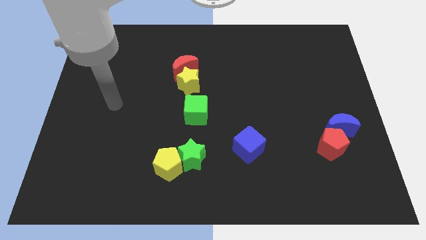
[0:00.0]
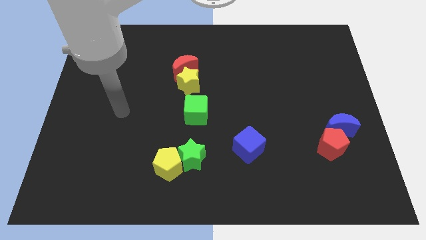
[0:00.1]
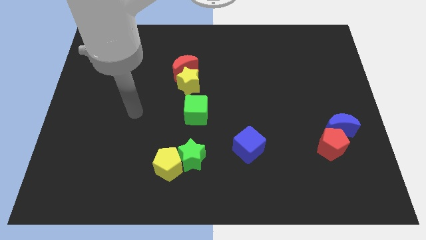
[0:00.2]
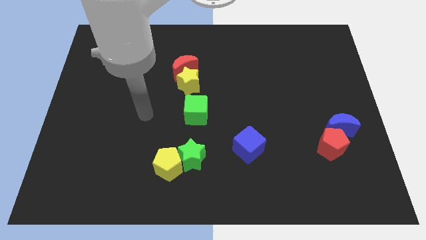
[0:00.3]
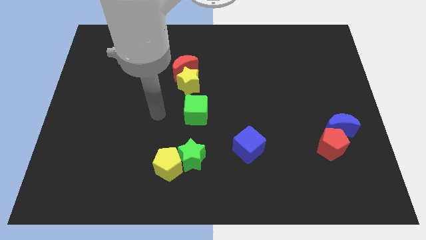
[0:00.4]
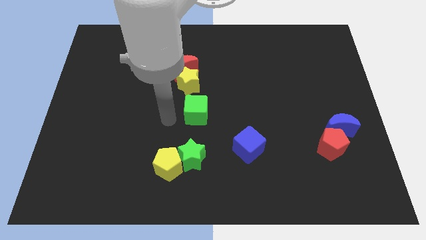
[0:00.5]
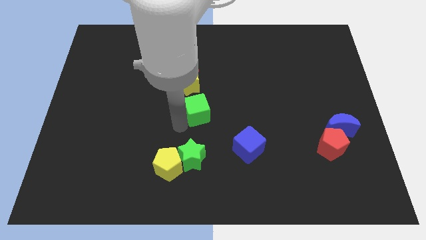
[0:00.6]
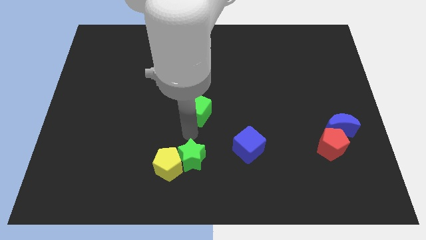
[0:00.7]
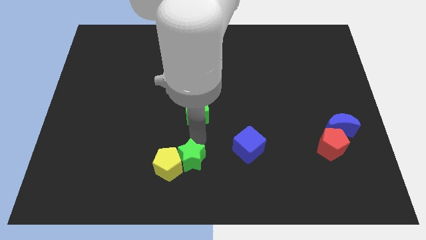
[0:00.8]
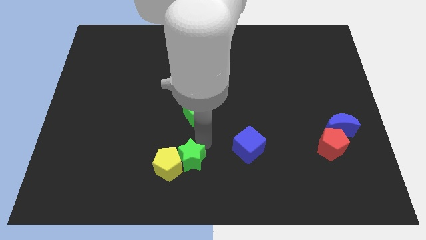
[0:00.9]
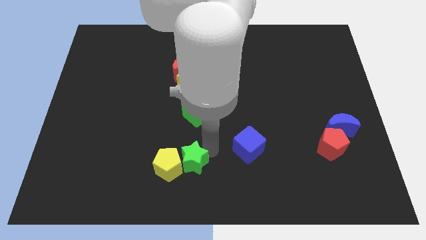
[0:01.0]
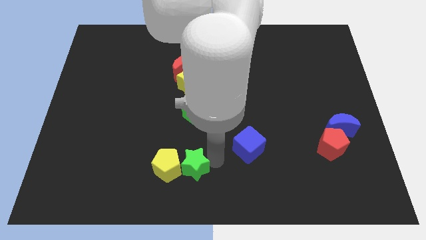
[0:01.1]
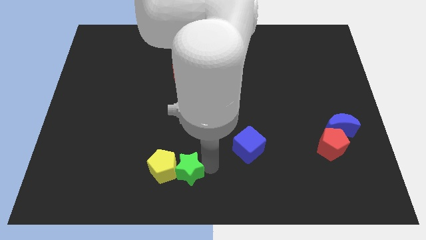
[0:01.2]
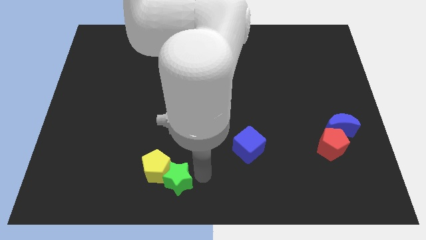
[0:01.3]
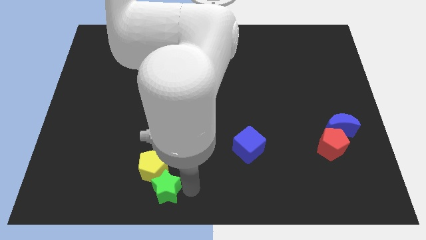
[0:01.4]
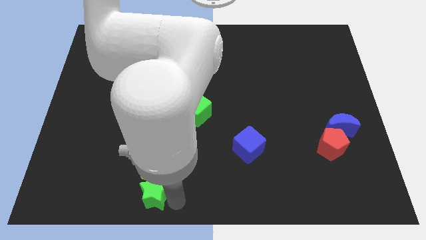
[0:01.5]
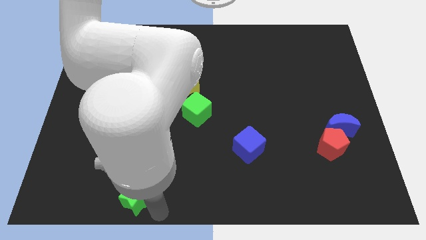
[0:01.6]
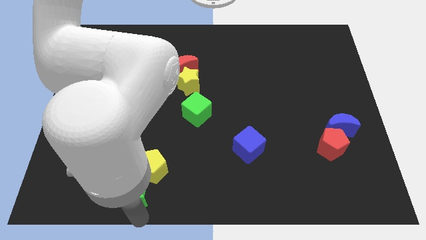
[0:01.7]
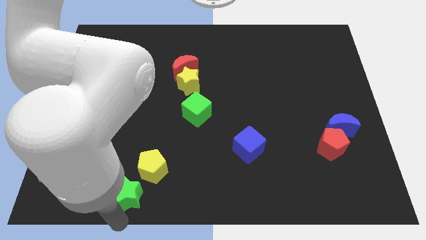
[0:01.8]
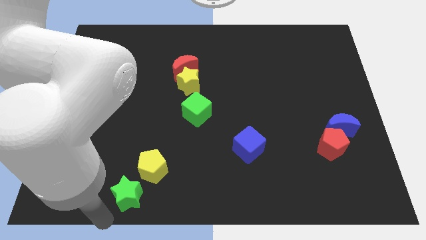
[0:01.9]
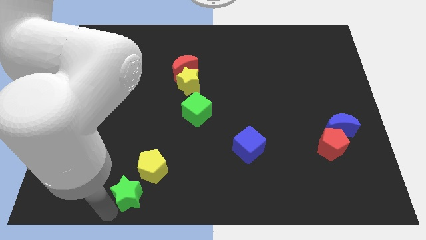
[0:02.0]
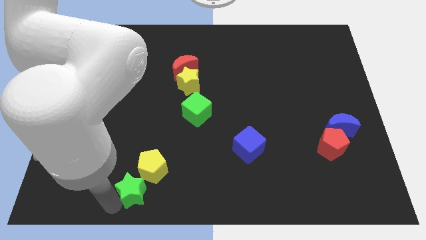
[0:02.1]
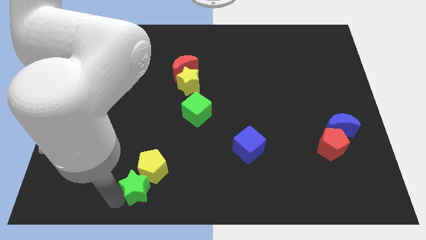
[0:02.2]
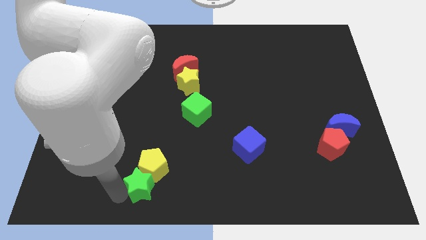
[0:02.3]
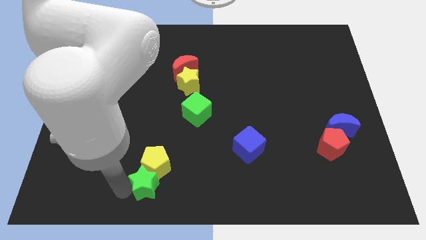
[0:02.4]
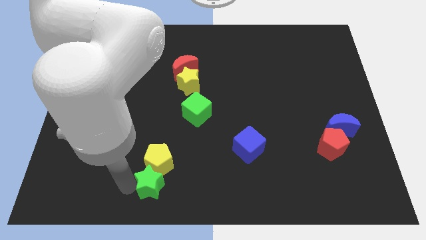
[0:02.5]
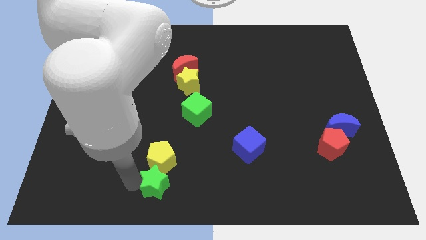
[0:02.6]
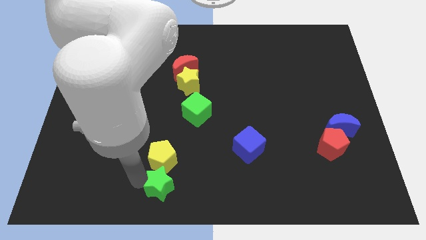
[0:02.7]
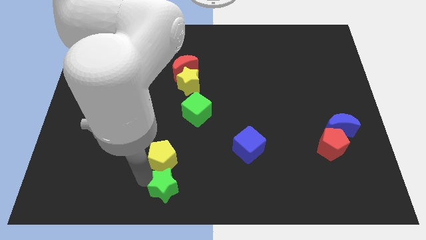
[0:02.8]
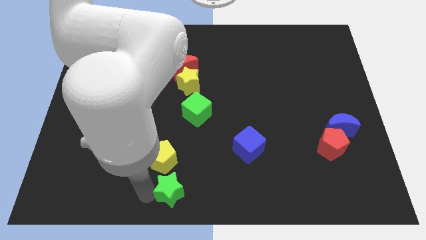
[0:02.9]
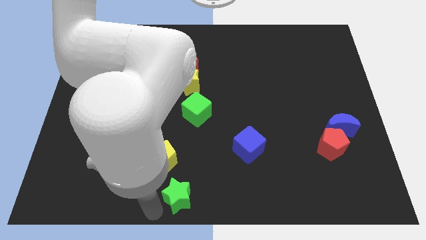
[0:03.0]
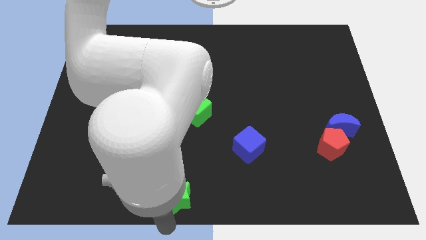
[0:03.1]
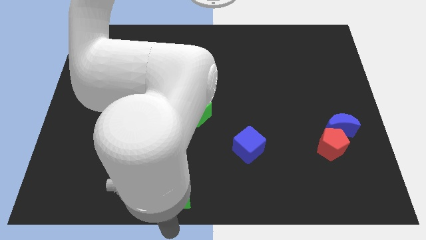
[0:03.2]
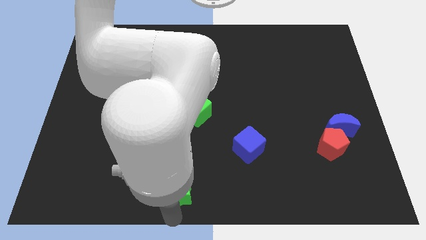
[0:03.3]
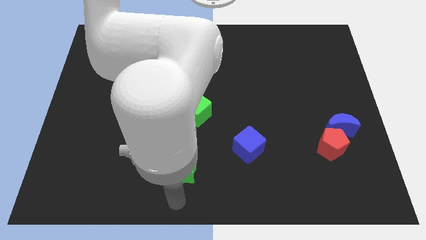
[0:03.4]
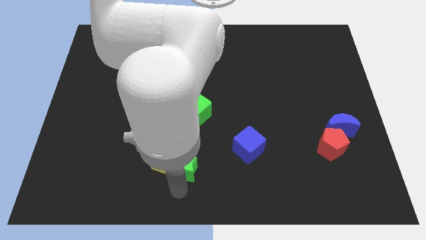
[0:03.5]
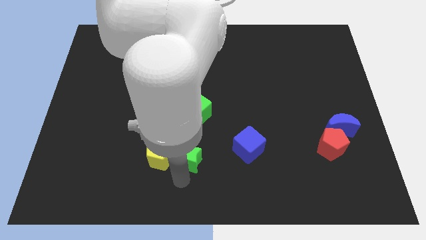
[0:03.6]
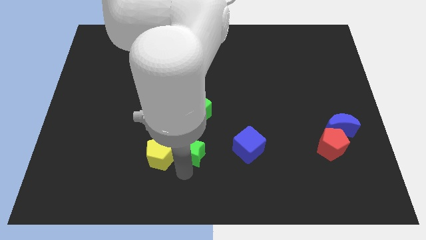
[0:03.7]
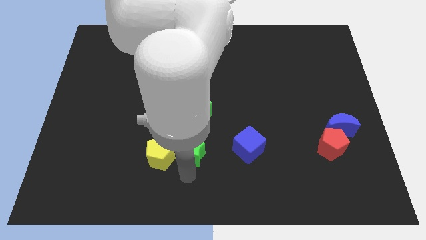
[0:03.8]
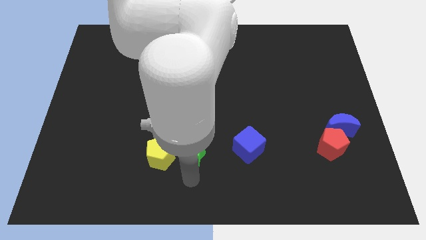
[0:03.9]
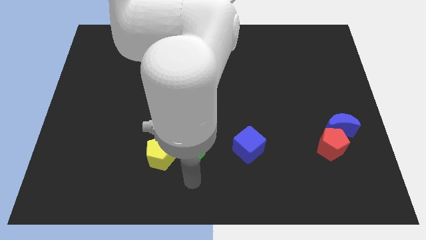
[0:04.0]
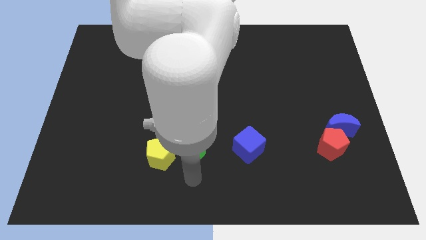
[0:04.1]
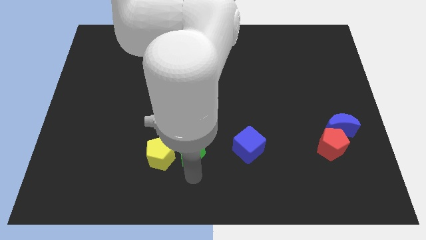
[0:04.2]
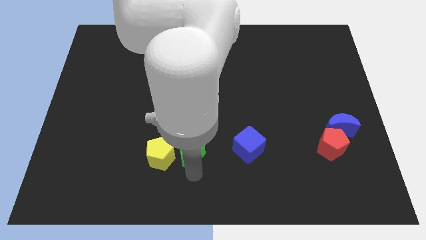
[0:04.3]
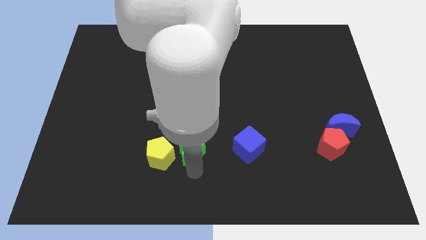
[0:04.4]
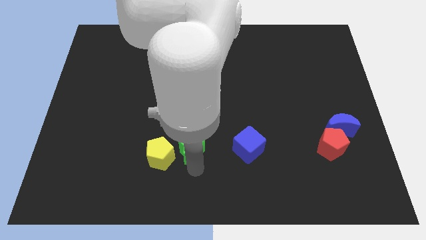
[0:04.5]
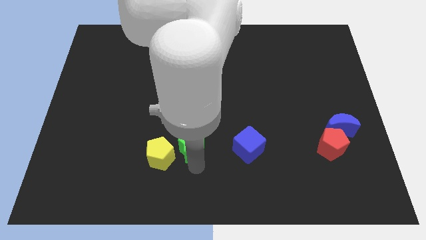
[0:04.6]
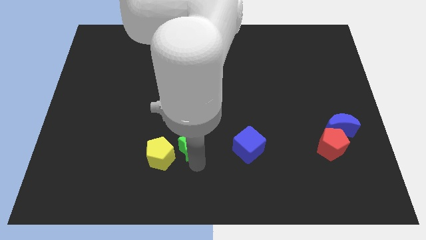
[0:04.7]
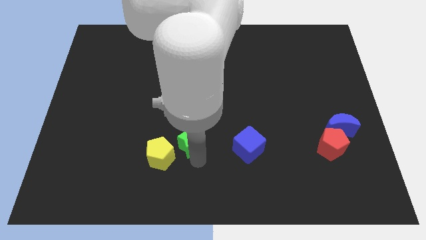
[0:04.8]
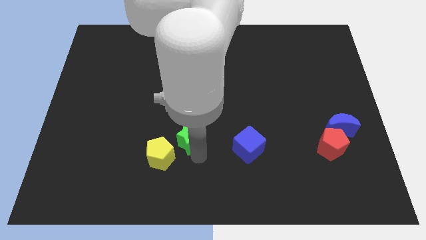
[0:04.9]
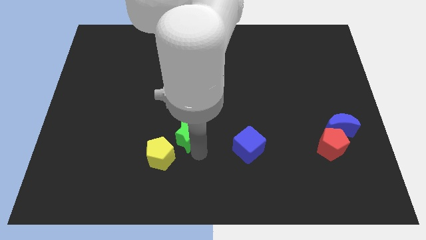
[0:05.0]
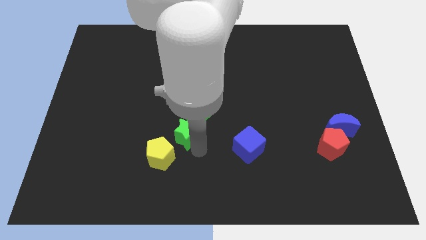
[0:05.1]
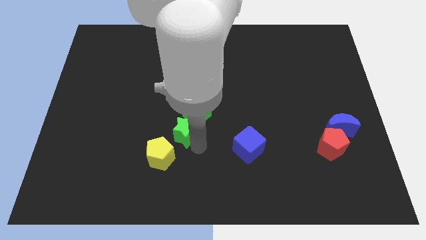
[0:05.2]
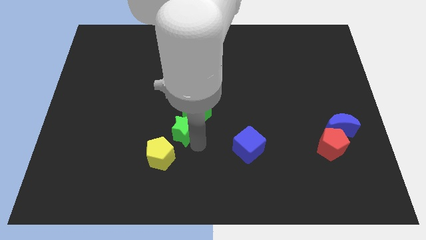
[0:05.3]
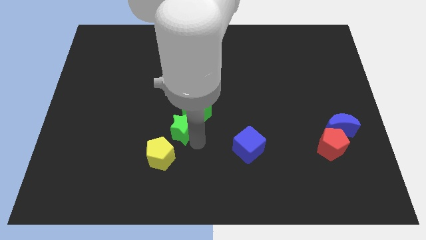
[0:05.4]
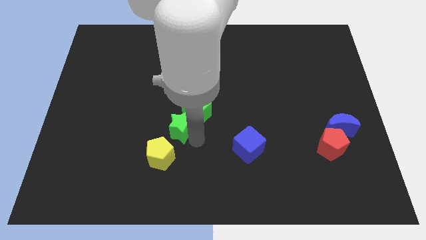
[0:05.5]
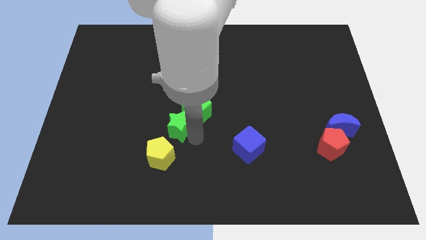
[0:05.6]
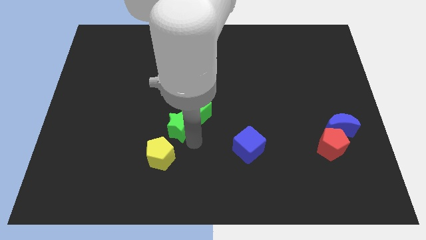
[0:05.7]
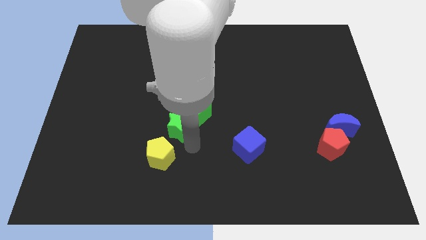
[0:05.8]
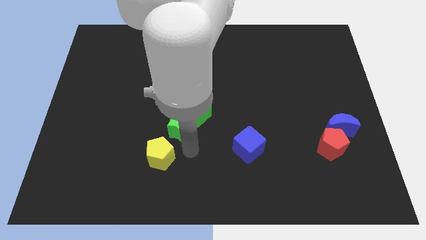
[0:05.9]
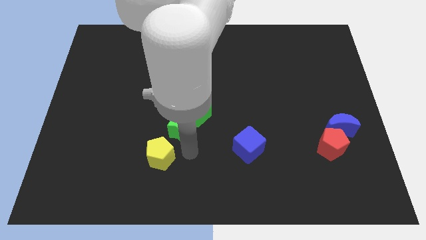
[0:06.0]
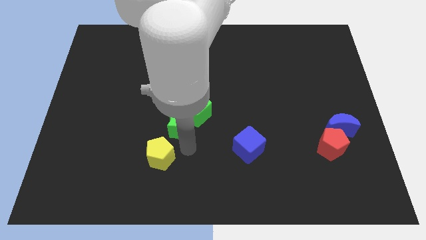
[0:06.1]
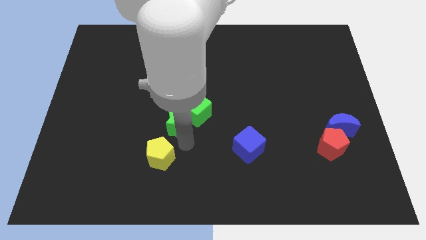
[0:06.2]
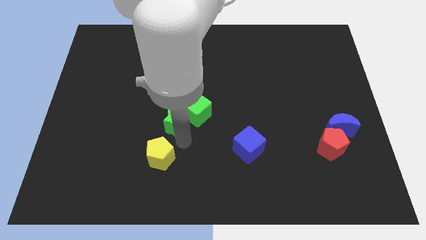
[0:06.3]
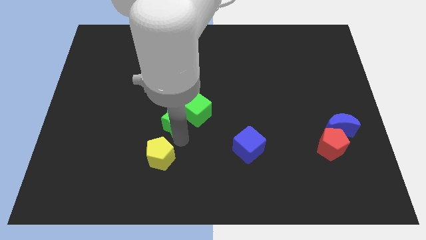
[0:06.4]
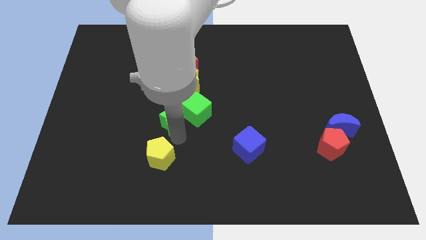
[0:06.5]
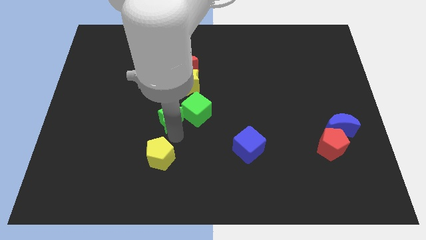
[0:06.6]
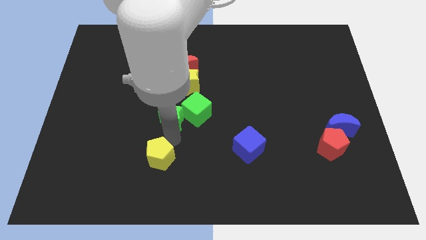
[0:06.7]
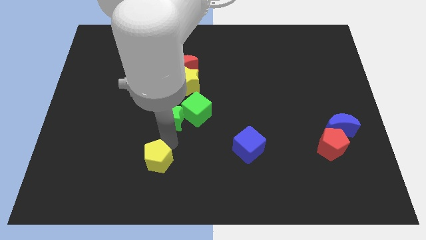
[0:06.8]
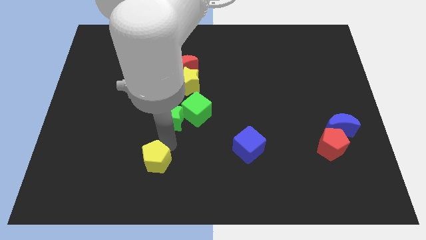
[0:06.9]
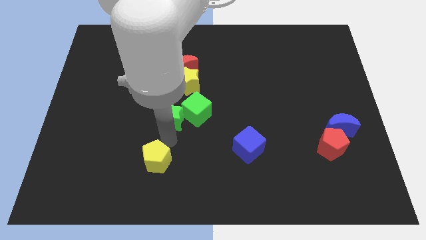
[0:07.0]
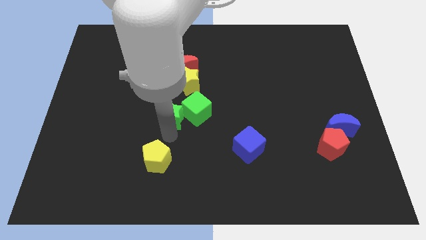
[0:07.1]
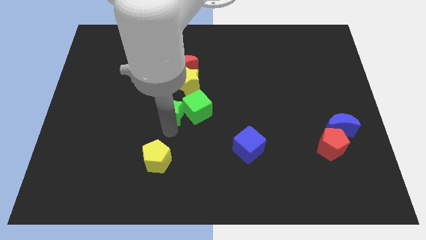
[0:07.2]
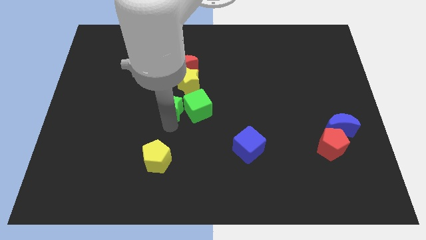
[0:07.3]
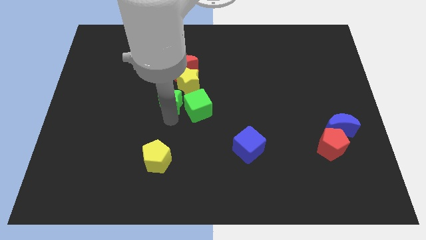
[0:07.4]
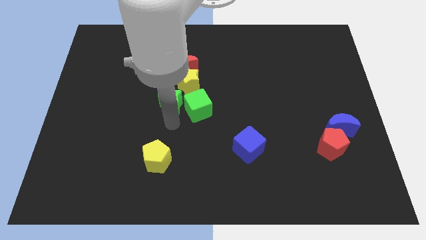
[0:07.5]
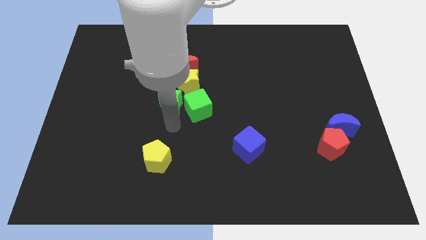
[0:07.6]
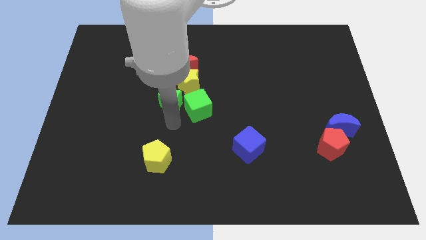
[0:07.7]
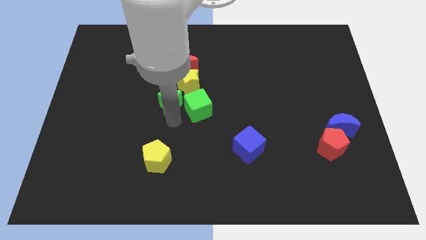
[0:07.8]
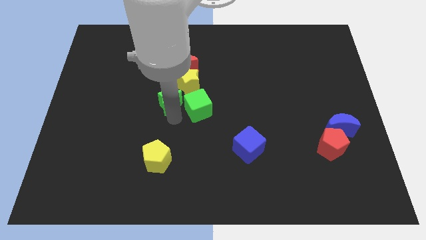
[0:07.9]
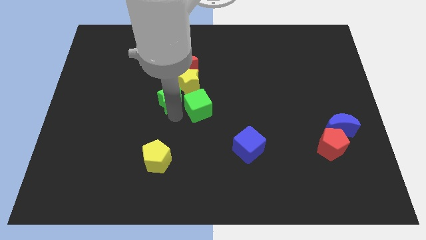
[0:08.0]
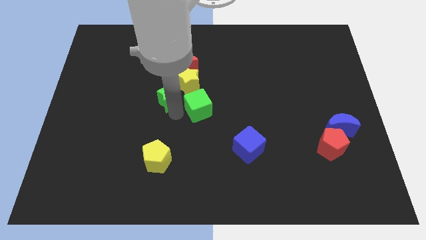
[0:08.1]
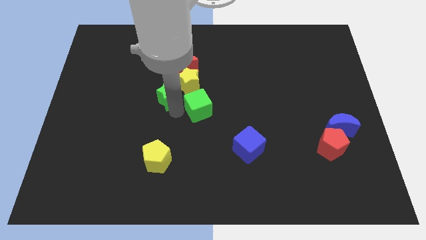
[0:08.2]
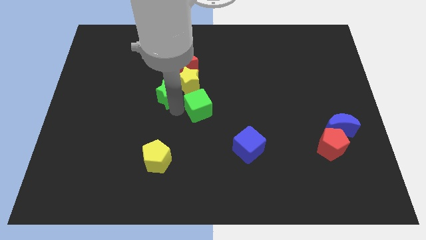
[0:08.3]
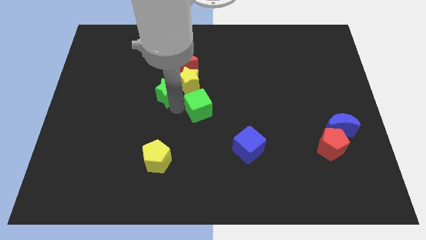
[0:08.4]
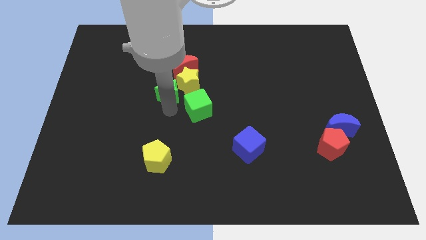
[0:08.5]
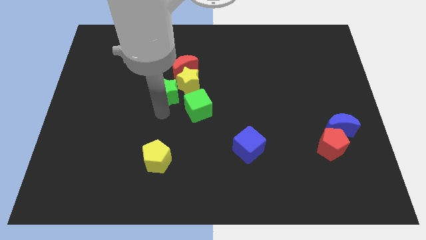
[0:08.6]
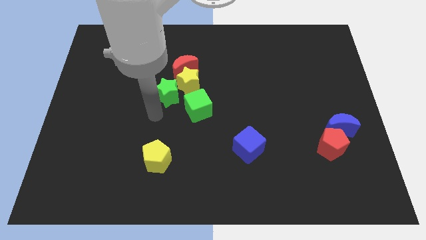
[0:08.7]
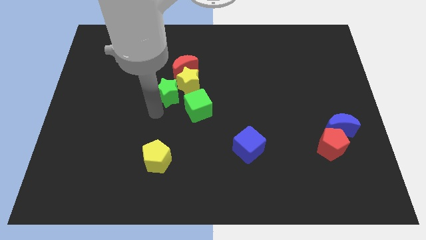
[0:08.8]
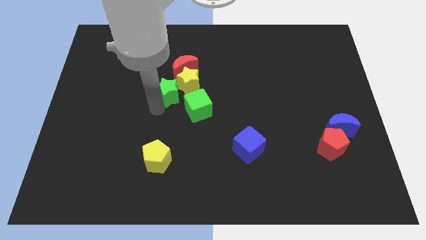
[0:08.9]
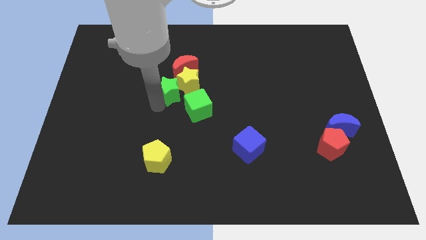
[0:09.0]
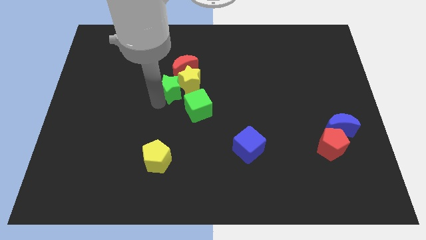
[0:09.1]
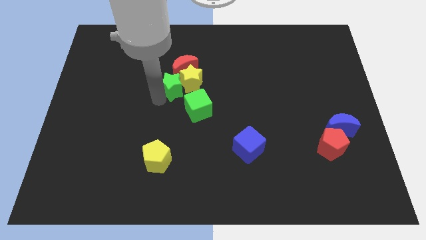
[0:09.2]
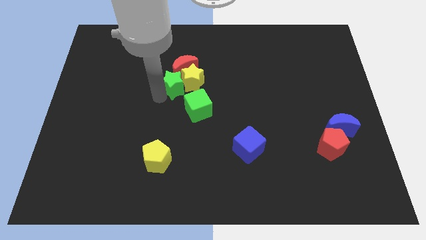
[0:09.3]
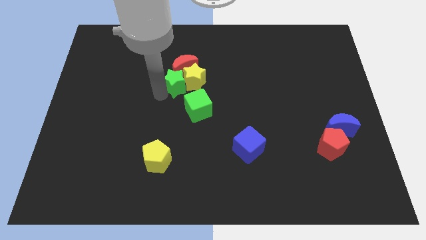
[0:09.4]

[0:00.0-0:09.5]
push the green star towards the red moon
